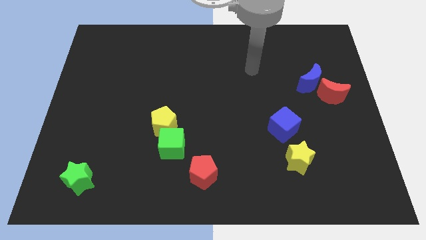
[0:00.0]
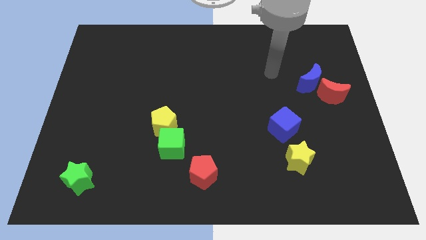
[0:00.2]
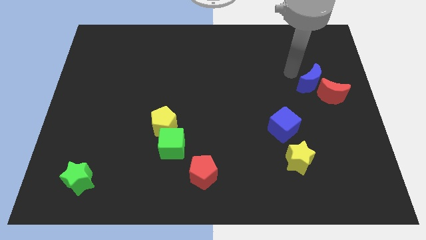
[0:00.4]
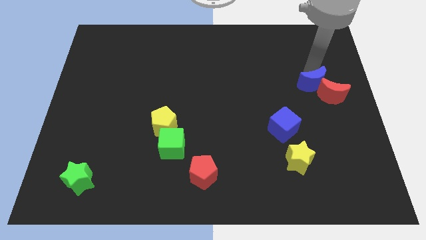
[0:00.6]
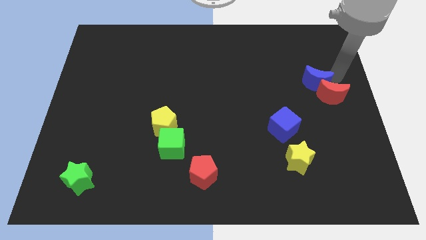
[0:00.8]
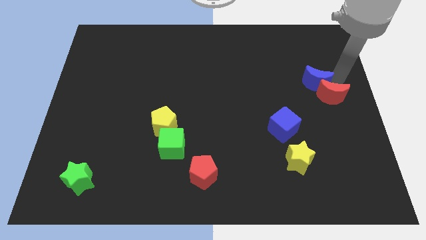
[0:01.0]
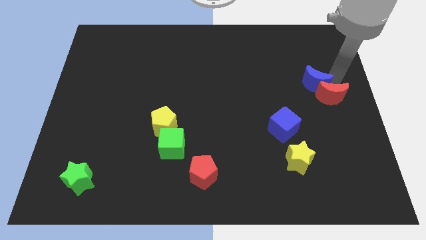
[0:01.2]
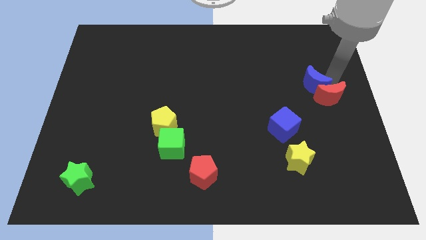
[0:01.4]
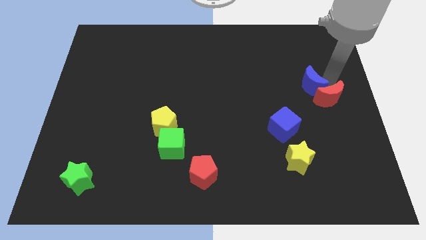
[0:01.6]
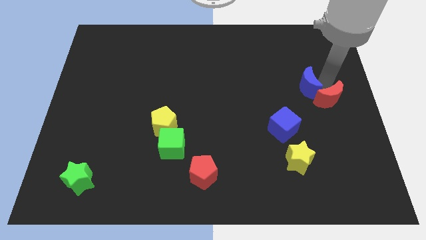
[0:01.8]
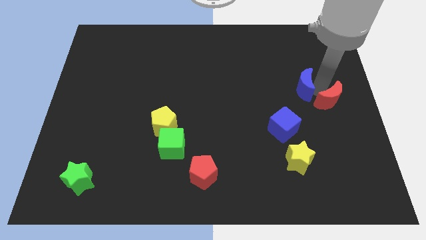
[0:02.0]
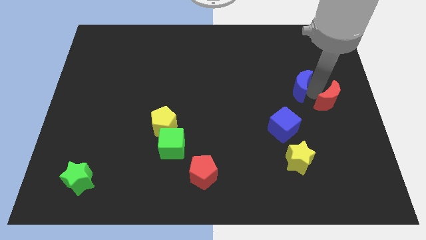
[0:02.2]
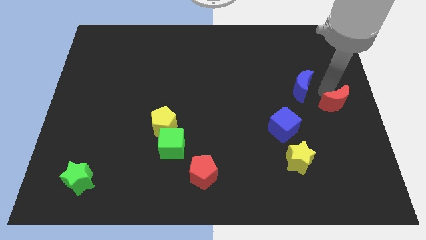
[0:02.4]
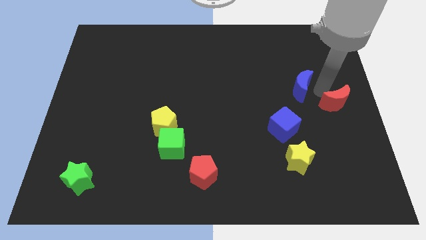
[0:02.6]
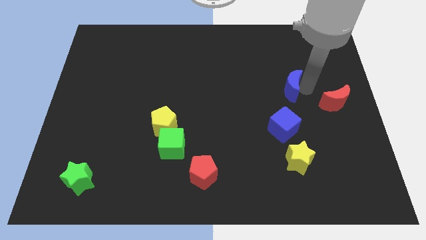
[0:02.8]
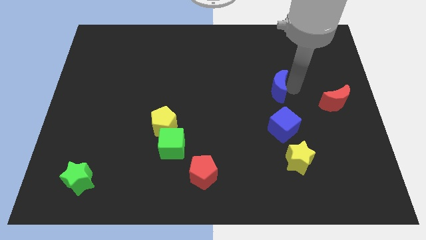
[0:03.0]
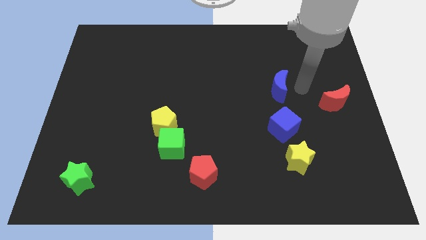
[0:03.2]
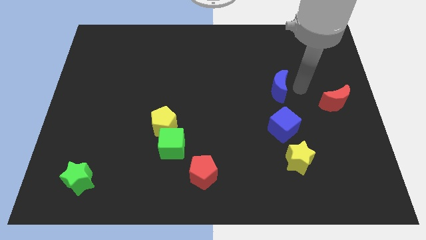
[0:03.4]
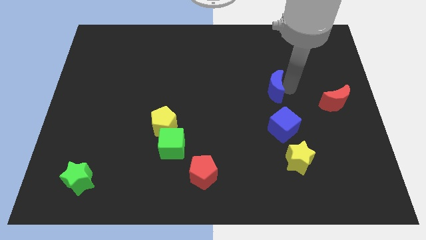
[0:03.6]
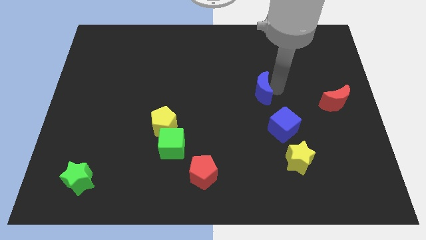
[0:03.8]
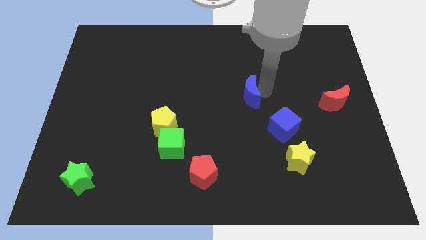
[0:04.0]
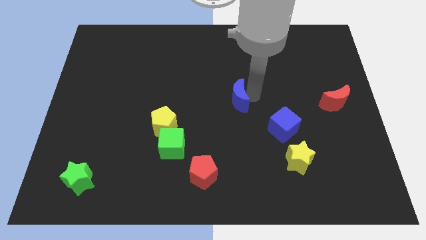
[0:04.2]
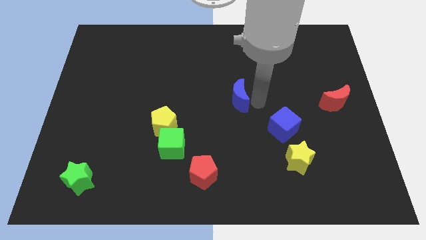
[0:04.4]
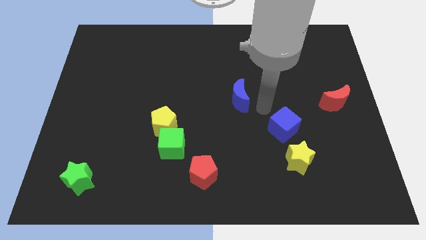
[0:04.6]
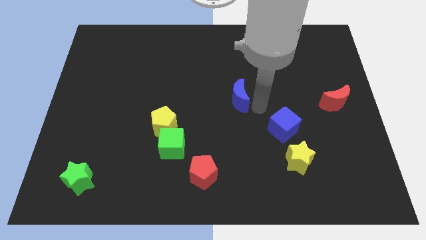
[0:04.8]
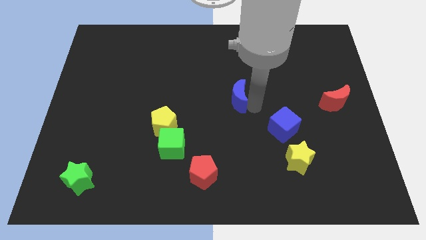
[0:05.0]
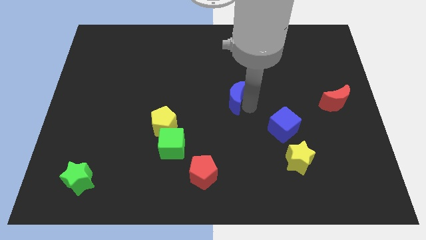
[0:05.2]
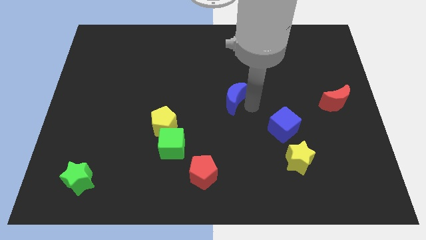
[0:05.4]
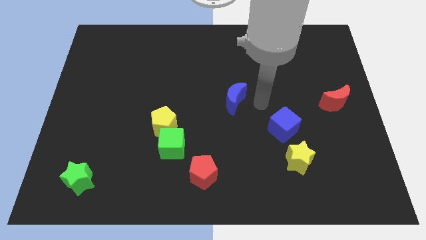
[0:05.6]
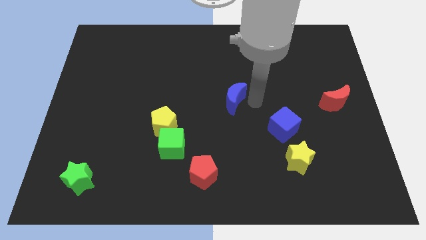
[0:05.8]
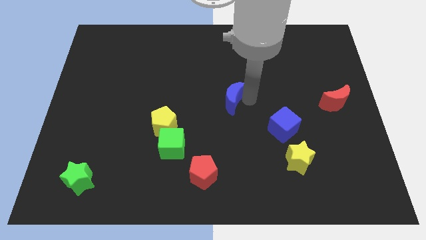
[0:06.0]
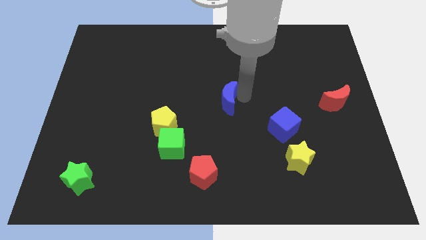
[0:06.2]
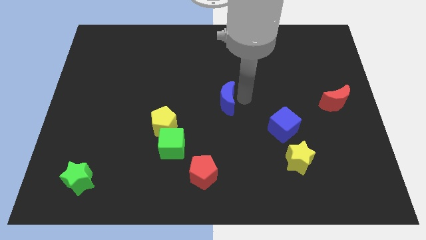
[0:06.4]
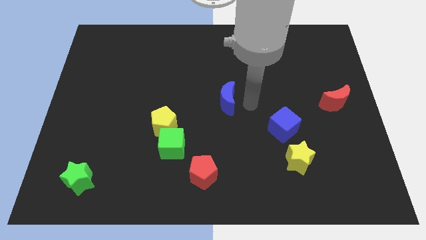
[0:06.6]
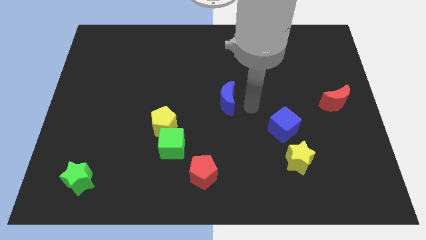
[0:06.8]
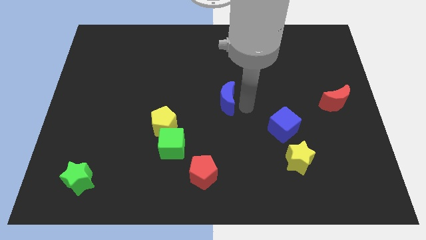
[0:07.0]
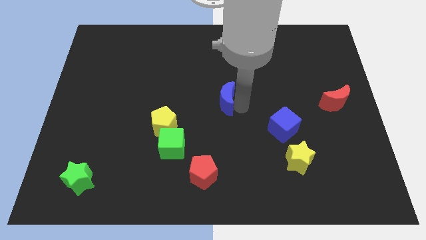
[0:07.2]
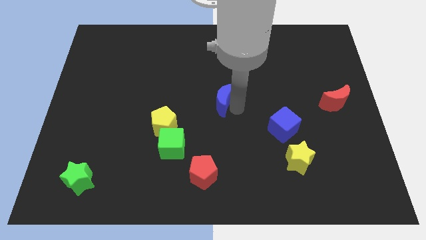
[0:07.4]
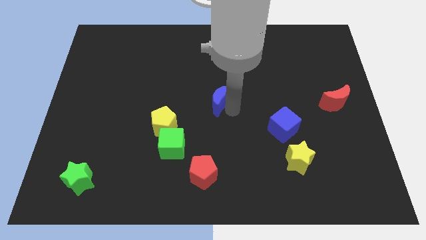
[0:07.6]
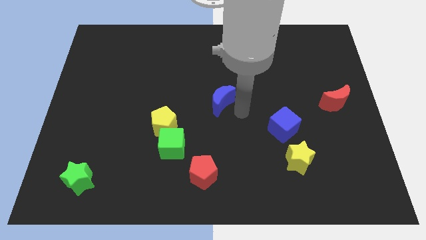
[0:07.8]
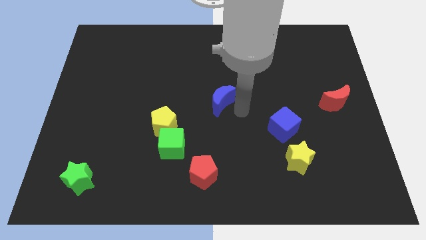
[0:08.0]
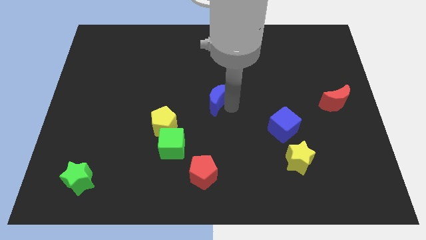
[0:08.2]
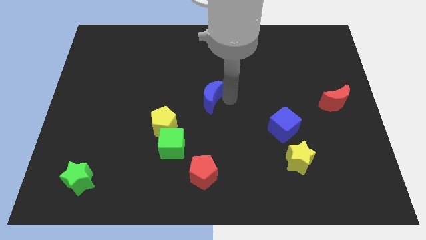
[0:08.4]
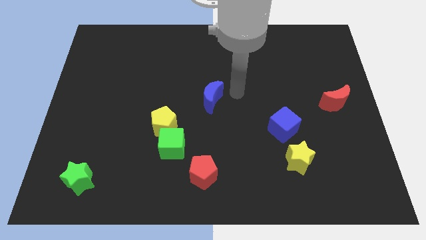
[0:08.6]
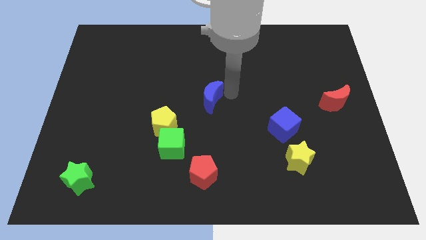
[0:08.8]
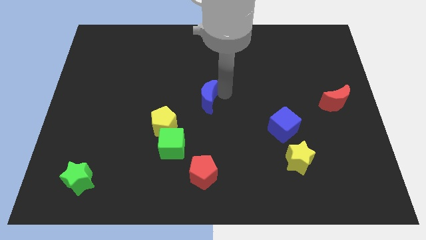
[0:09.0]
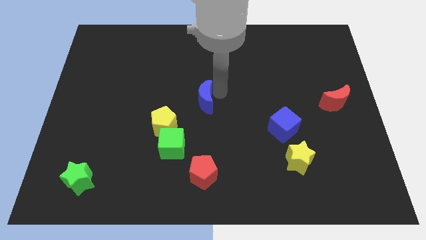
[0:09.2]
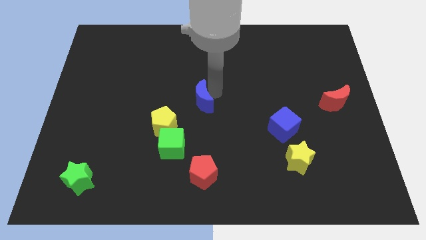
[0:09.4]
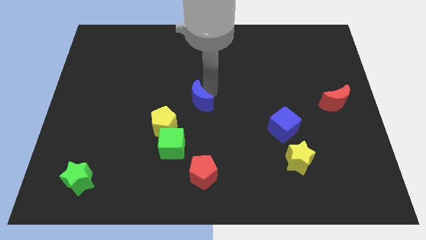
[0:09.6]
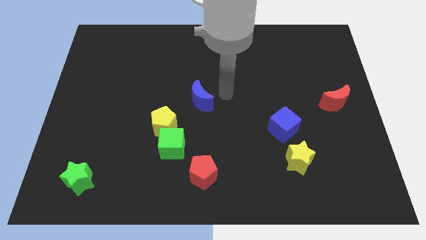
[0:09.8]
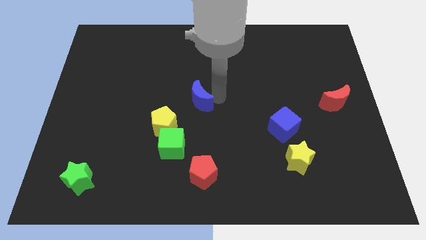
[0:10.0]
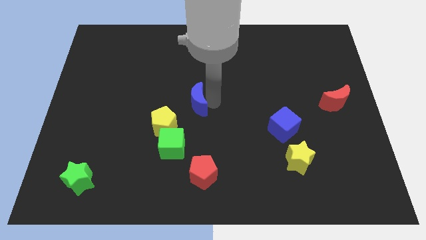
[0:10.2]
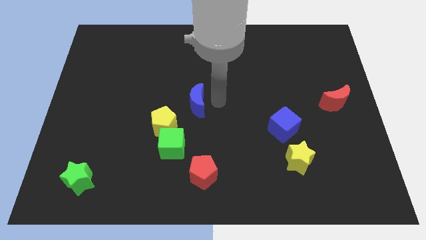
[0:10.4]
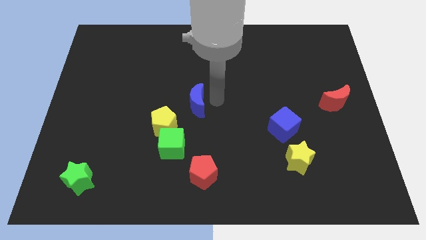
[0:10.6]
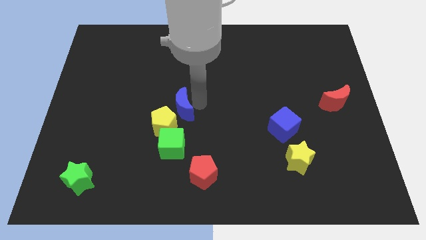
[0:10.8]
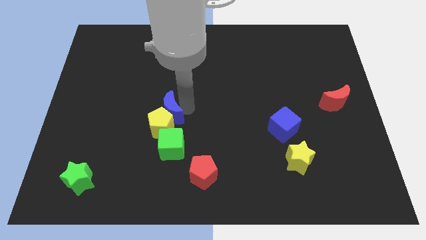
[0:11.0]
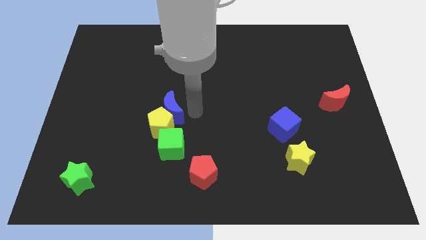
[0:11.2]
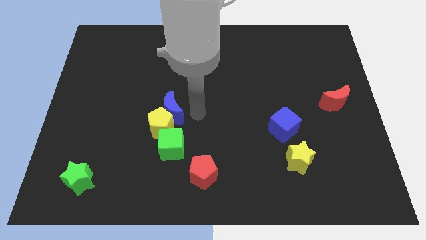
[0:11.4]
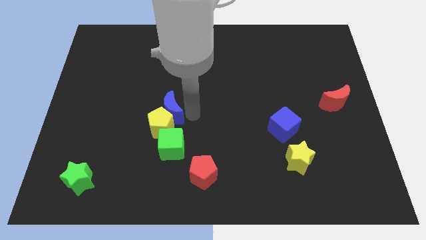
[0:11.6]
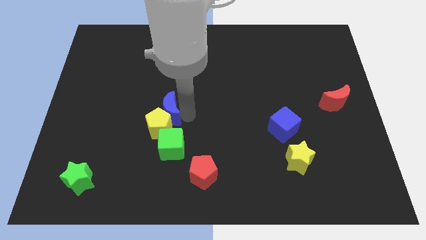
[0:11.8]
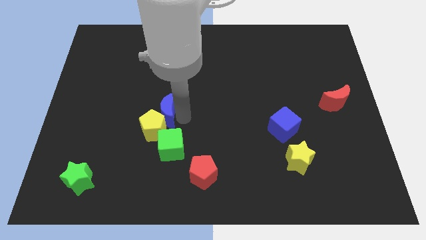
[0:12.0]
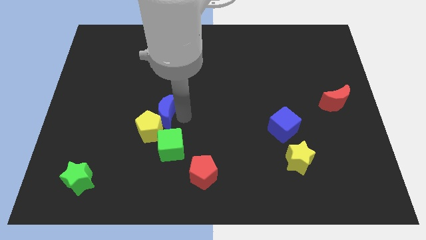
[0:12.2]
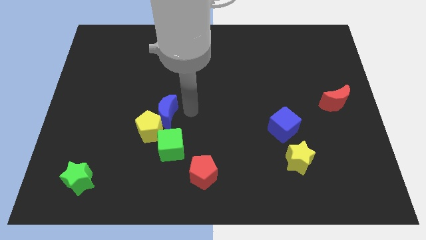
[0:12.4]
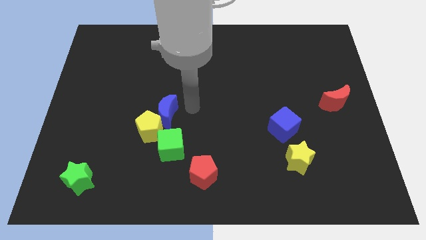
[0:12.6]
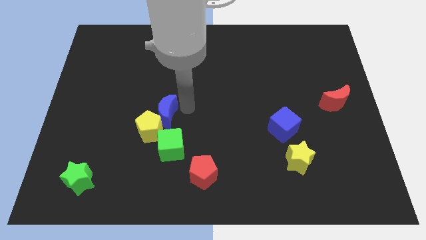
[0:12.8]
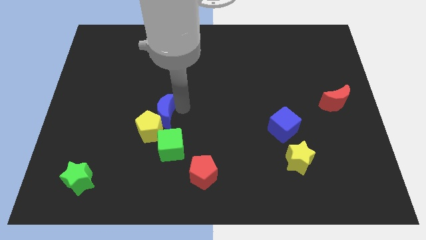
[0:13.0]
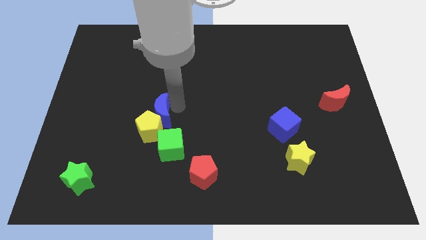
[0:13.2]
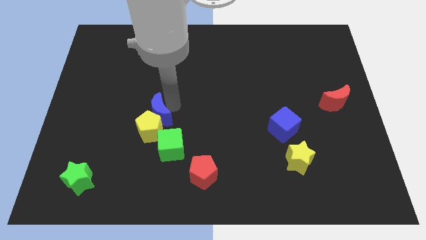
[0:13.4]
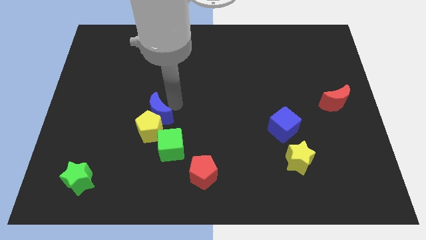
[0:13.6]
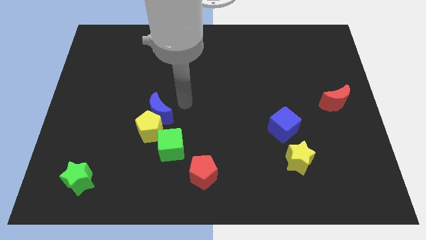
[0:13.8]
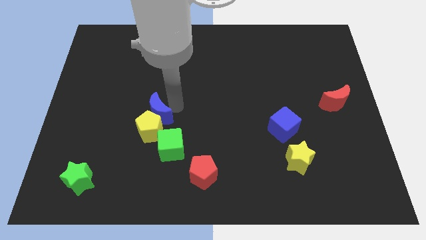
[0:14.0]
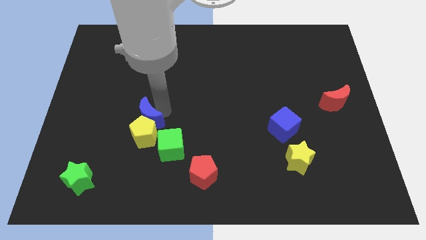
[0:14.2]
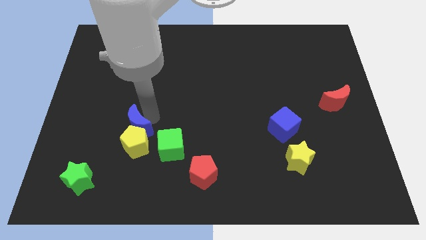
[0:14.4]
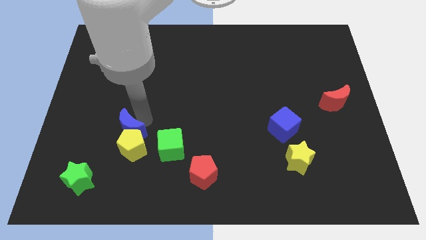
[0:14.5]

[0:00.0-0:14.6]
slide the blue moon left of the green cube
